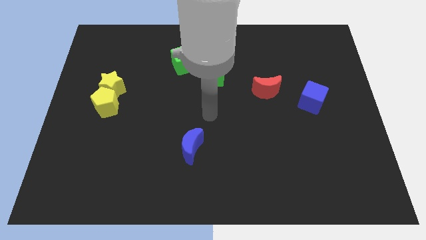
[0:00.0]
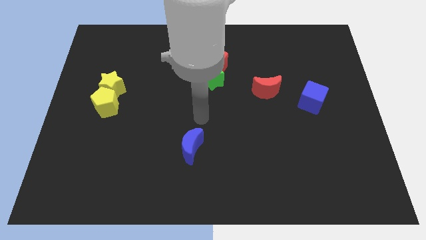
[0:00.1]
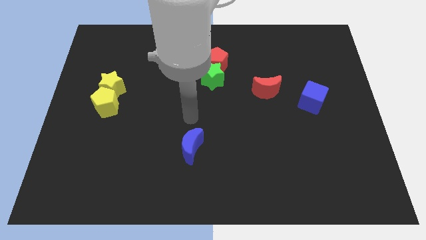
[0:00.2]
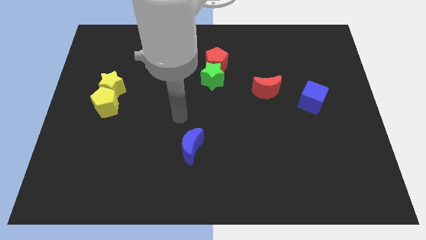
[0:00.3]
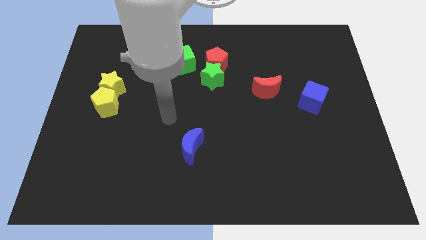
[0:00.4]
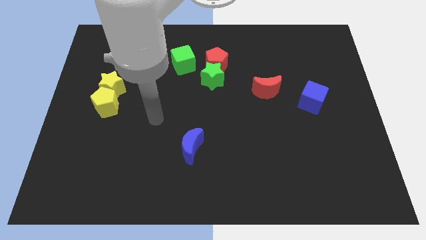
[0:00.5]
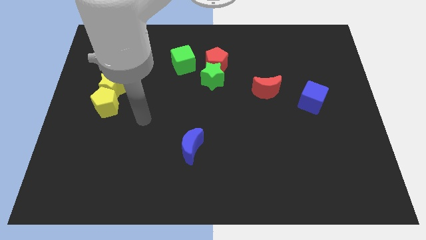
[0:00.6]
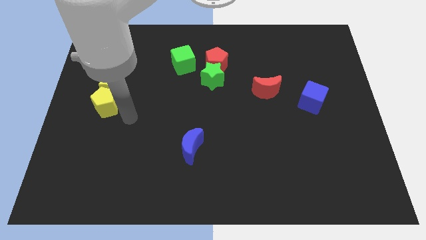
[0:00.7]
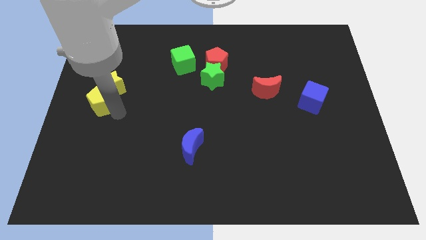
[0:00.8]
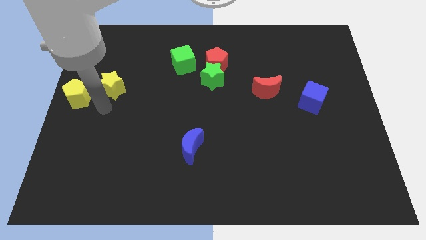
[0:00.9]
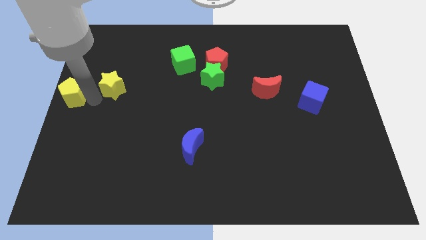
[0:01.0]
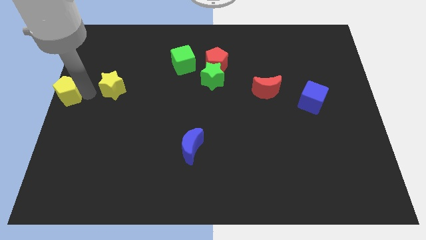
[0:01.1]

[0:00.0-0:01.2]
move the yellow star away from the yellow pentagon

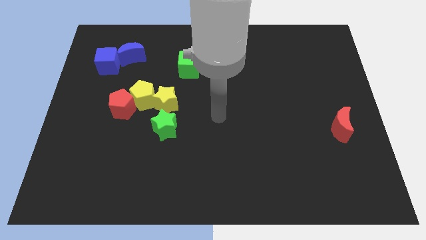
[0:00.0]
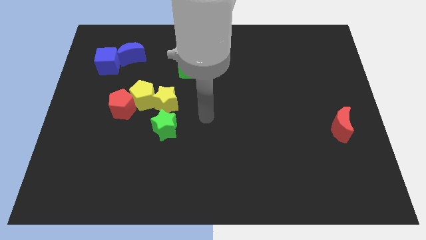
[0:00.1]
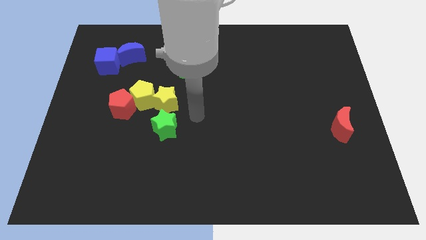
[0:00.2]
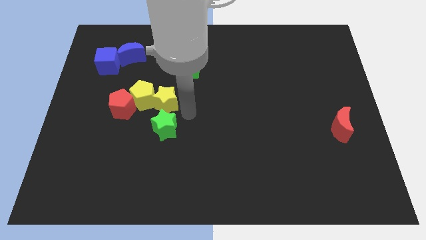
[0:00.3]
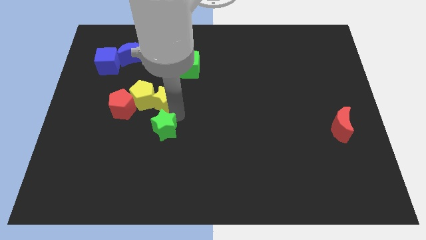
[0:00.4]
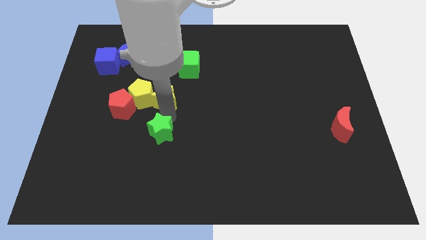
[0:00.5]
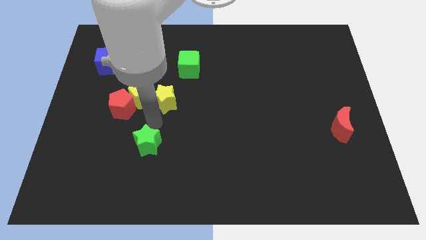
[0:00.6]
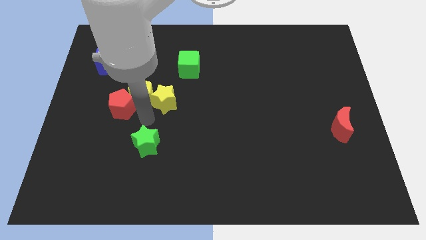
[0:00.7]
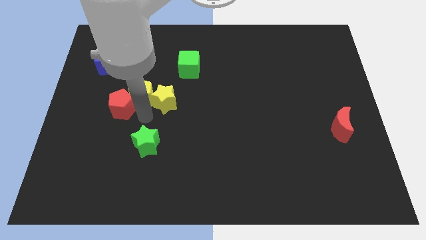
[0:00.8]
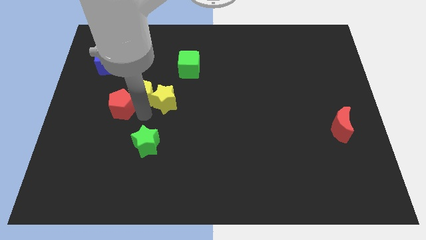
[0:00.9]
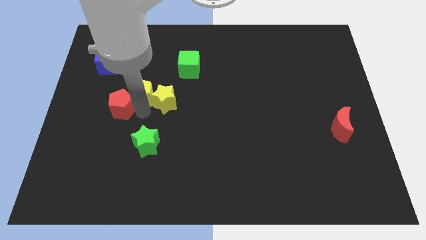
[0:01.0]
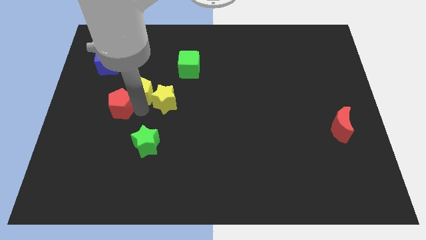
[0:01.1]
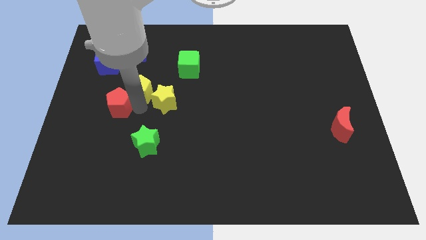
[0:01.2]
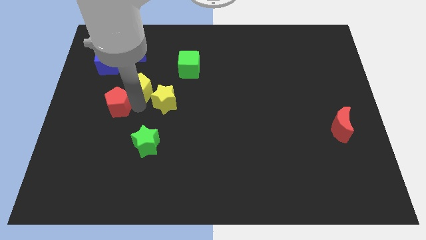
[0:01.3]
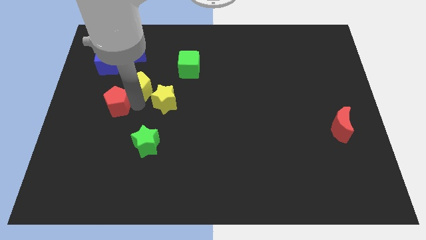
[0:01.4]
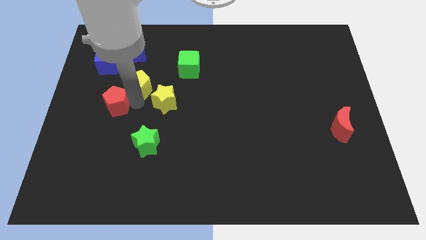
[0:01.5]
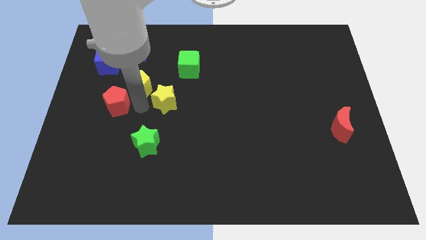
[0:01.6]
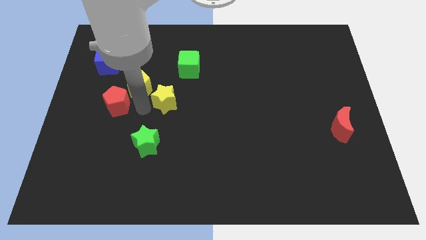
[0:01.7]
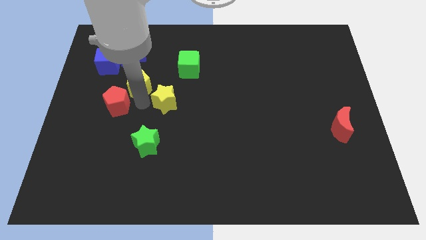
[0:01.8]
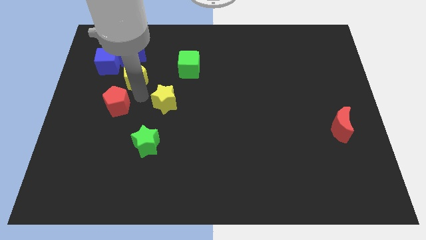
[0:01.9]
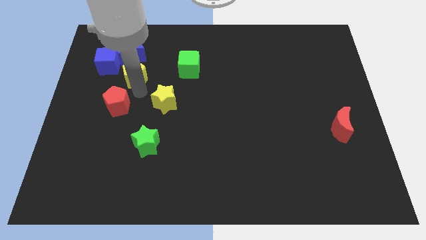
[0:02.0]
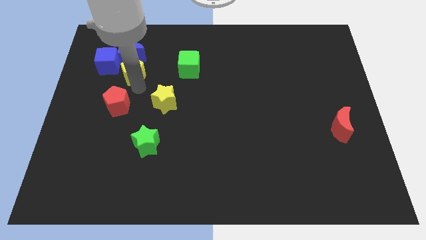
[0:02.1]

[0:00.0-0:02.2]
move the yellow pentagon away from the red pentagon and yellow star

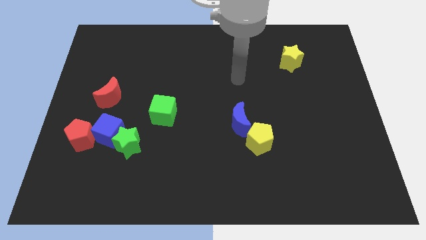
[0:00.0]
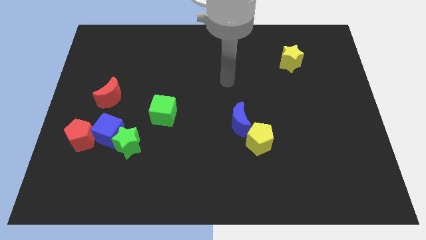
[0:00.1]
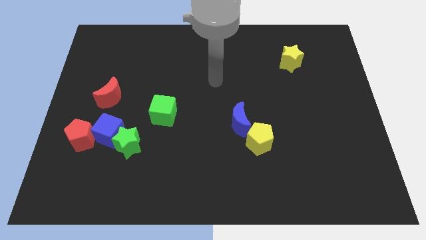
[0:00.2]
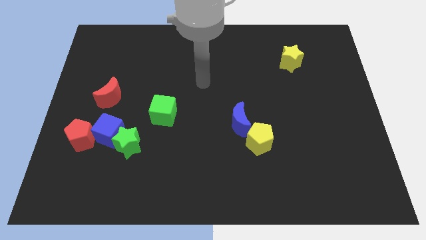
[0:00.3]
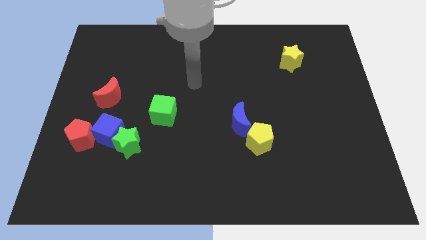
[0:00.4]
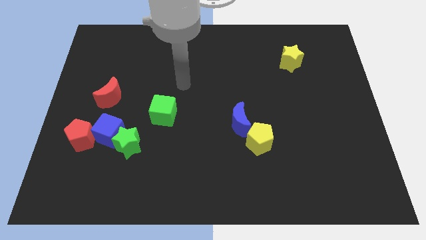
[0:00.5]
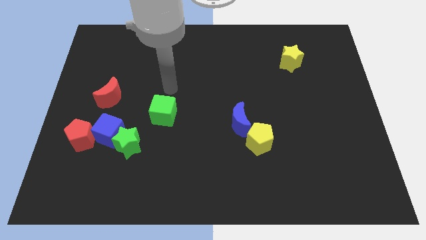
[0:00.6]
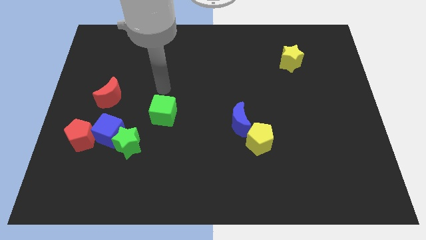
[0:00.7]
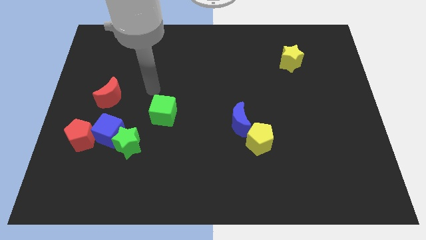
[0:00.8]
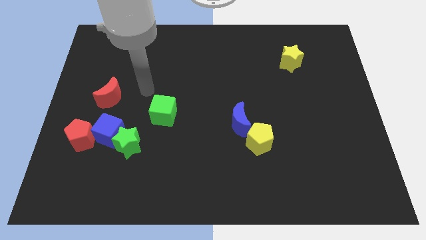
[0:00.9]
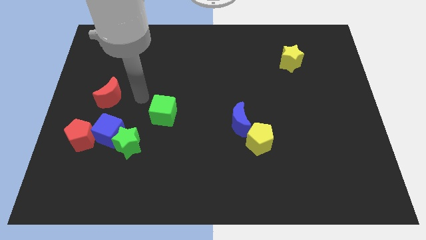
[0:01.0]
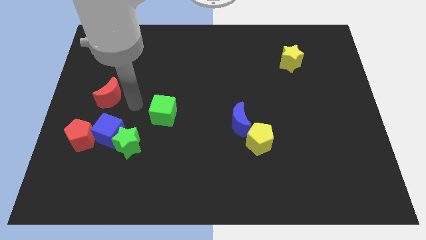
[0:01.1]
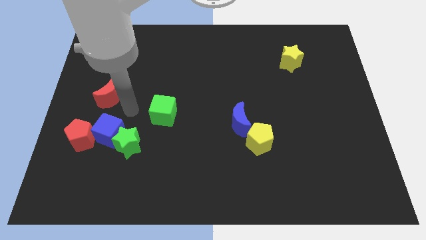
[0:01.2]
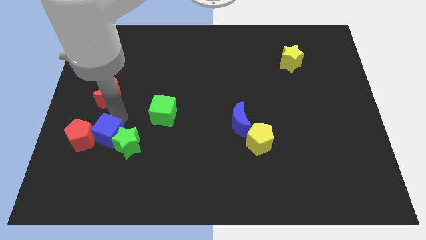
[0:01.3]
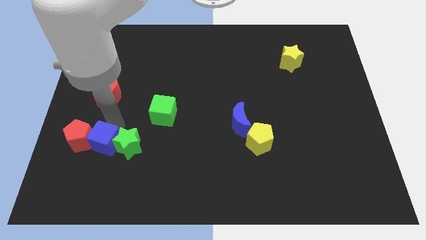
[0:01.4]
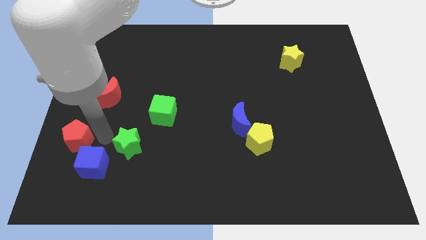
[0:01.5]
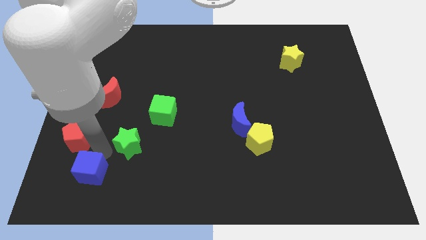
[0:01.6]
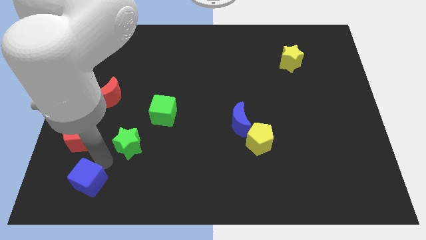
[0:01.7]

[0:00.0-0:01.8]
separate the green star from the blue cube

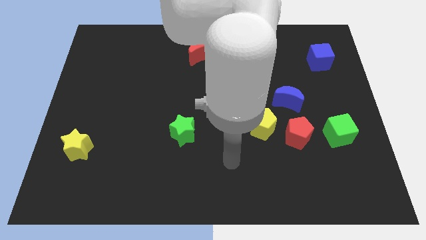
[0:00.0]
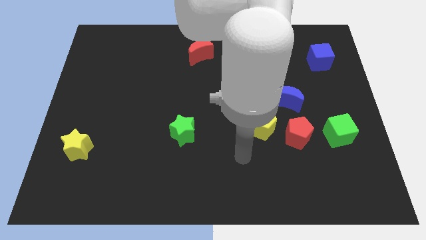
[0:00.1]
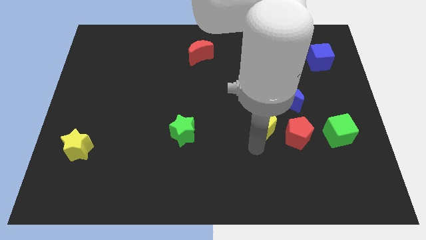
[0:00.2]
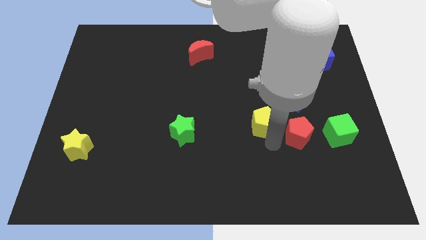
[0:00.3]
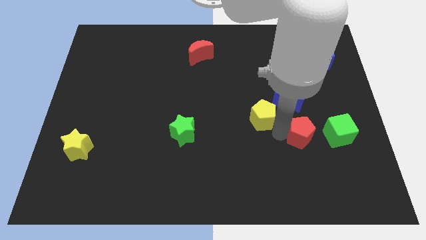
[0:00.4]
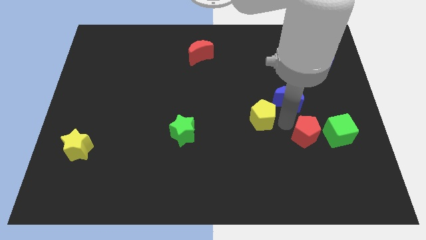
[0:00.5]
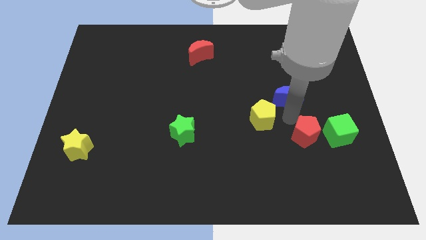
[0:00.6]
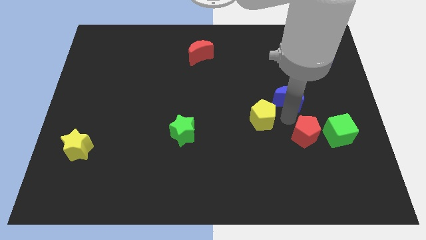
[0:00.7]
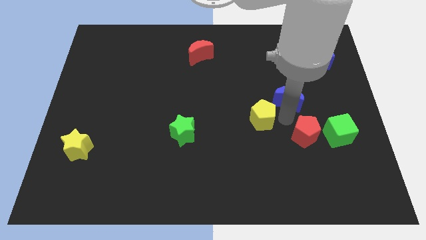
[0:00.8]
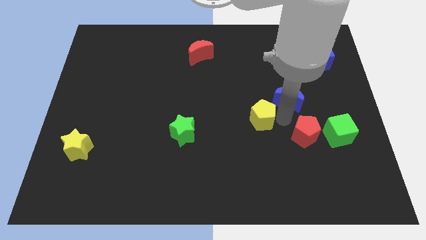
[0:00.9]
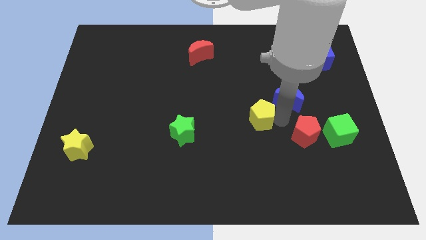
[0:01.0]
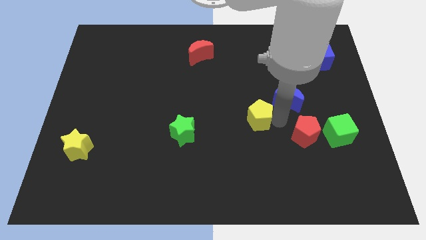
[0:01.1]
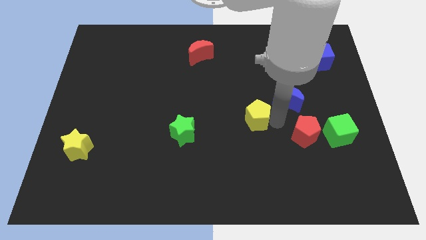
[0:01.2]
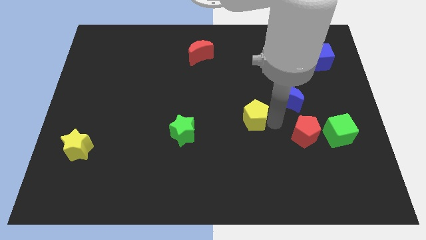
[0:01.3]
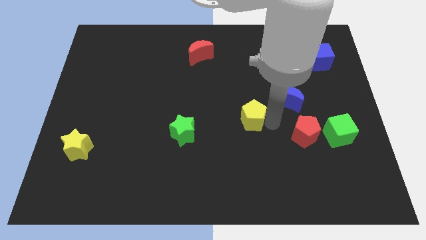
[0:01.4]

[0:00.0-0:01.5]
pull the yellow pentagon apart from the red pentagon and blue moon

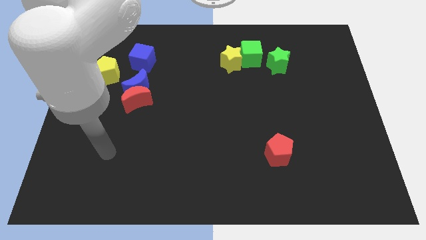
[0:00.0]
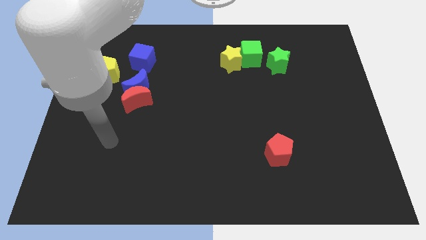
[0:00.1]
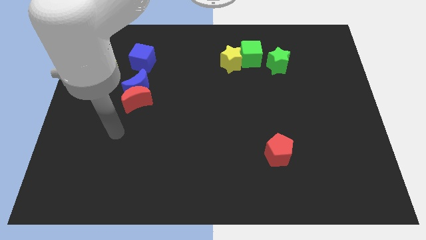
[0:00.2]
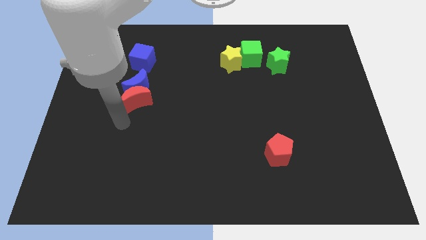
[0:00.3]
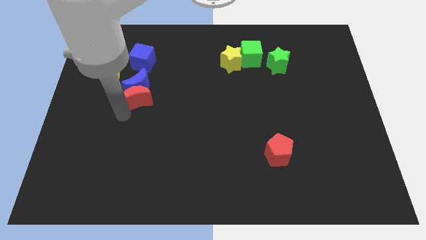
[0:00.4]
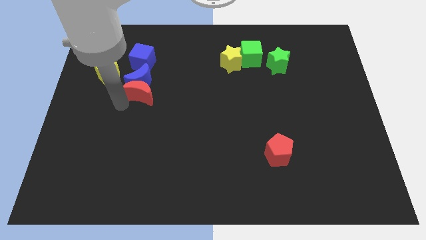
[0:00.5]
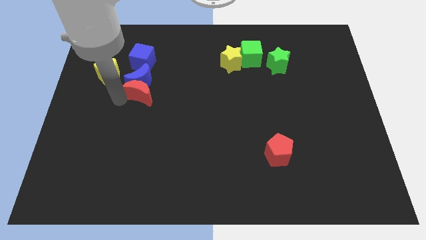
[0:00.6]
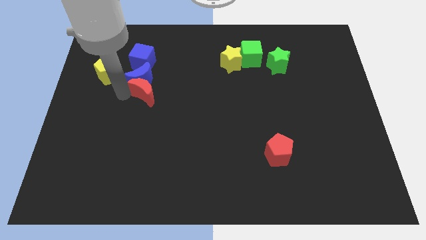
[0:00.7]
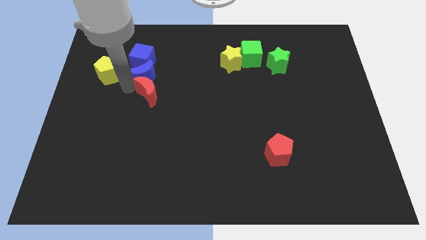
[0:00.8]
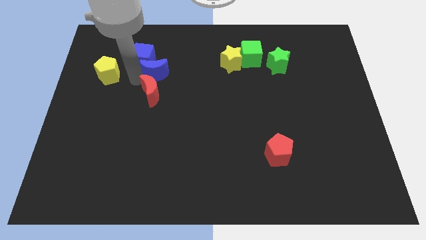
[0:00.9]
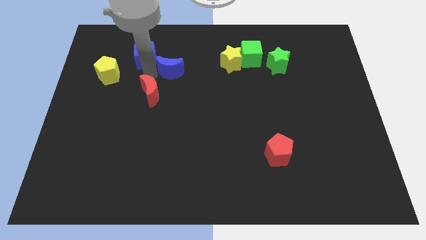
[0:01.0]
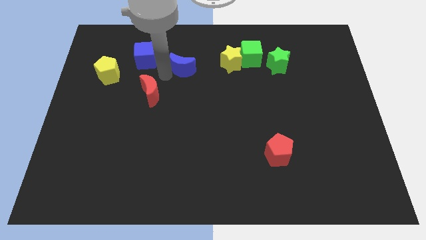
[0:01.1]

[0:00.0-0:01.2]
move the red moon away from the blue moon

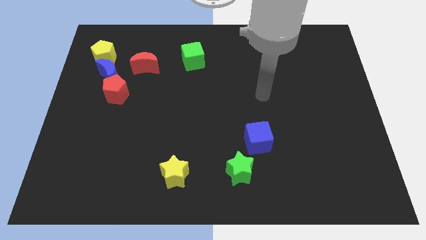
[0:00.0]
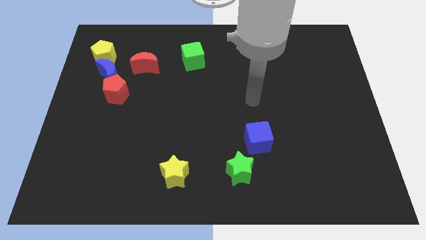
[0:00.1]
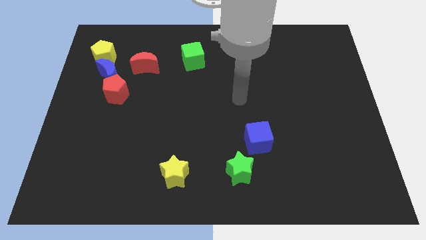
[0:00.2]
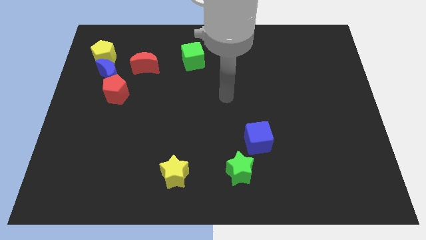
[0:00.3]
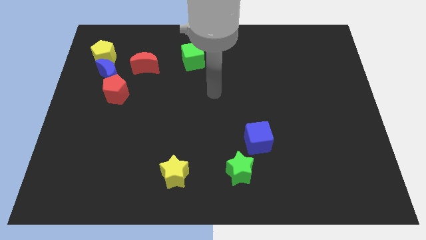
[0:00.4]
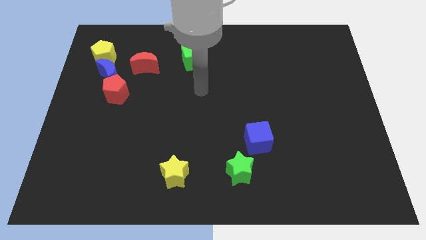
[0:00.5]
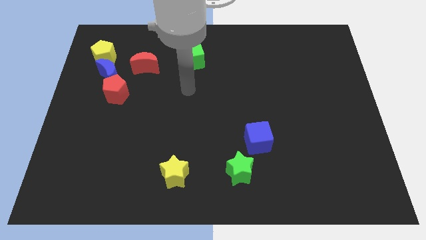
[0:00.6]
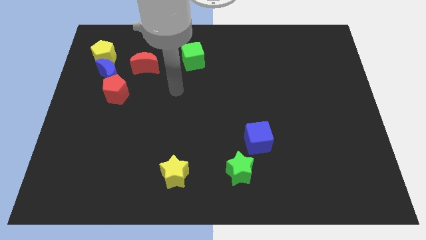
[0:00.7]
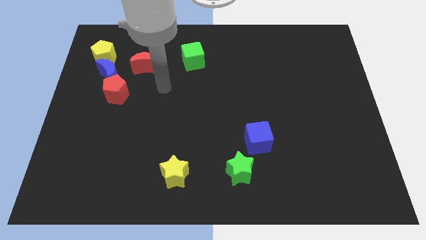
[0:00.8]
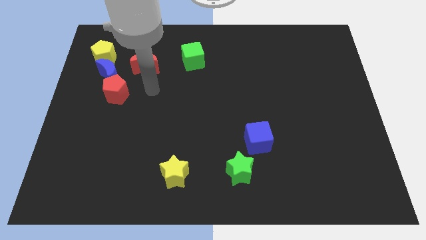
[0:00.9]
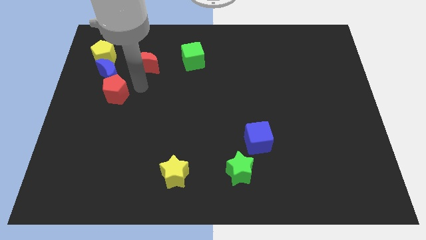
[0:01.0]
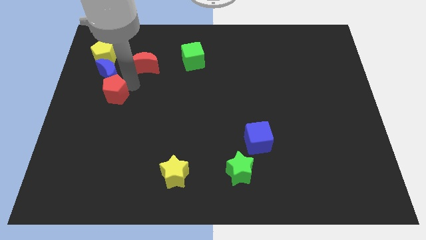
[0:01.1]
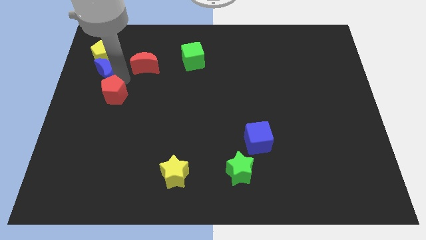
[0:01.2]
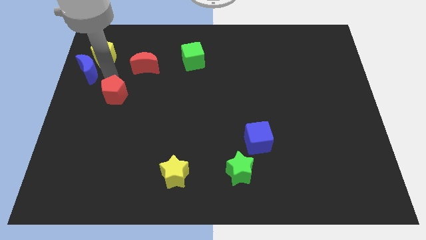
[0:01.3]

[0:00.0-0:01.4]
separate the red pentagon from the blue moon
